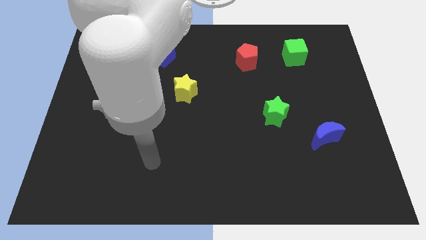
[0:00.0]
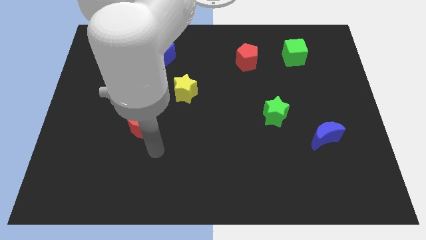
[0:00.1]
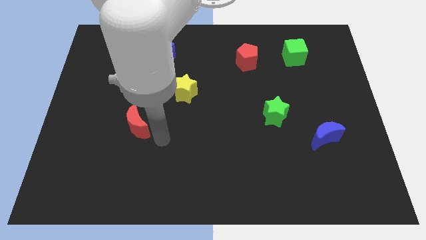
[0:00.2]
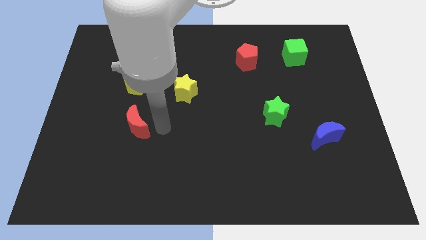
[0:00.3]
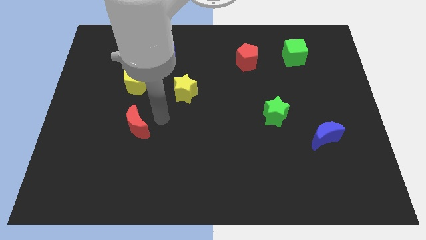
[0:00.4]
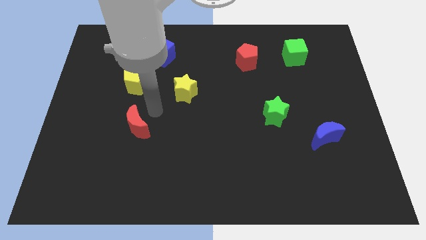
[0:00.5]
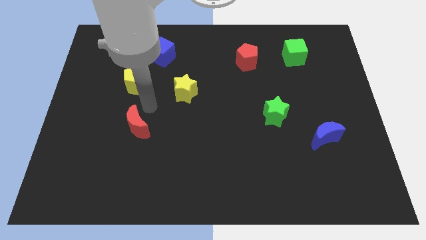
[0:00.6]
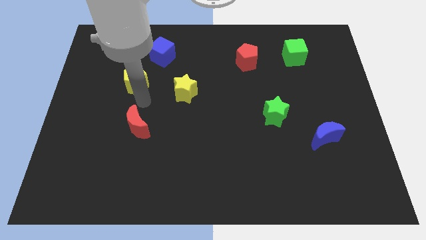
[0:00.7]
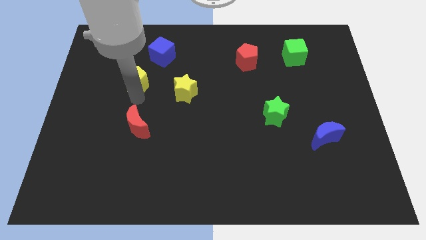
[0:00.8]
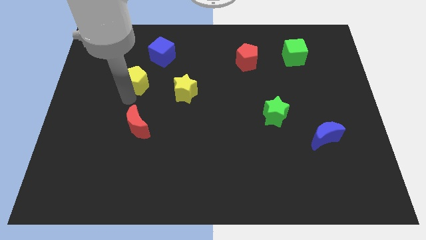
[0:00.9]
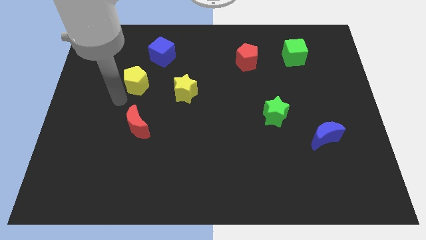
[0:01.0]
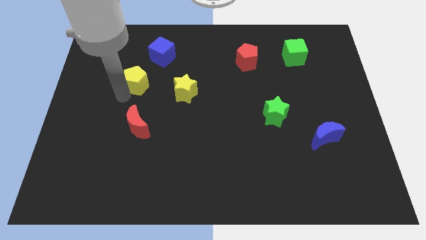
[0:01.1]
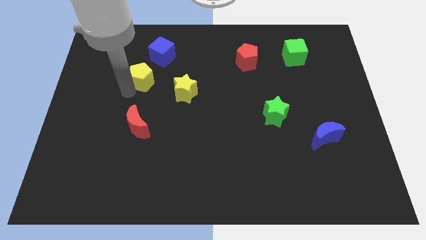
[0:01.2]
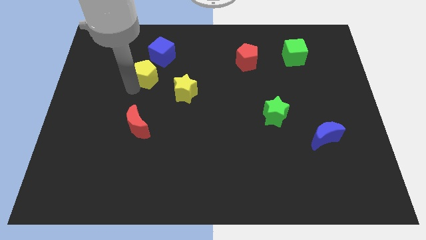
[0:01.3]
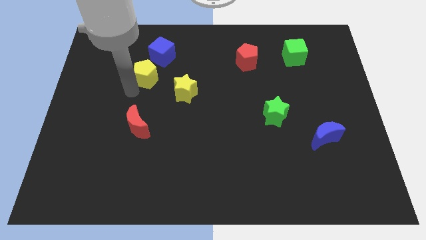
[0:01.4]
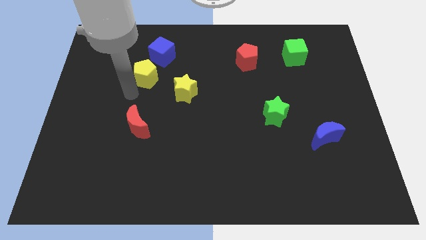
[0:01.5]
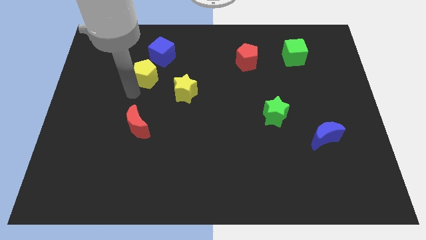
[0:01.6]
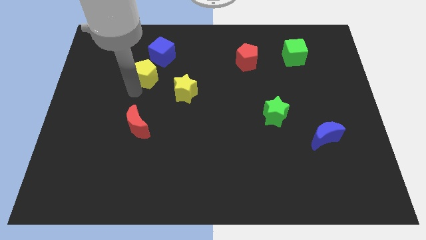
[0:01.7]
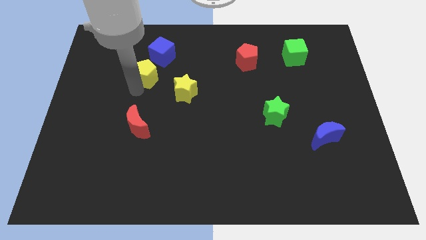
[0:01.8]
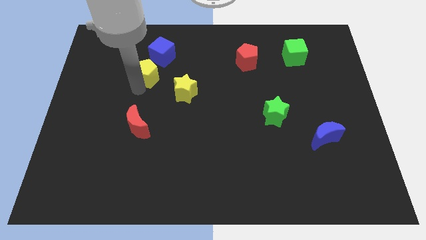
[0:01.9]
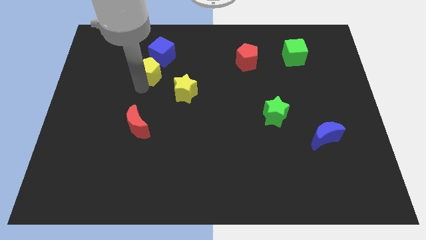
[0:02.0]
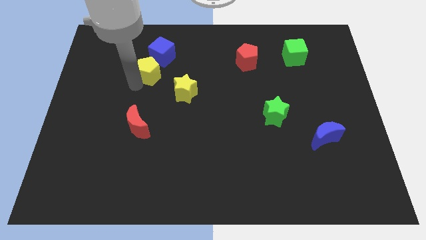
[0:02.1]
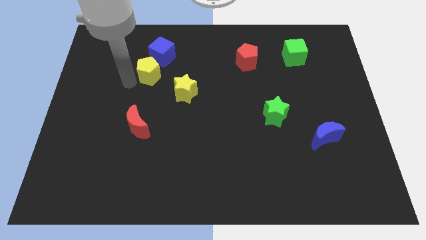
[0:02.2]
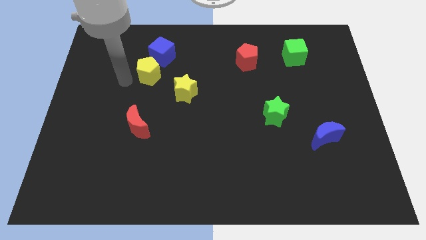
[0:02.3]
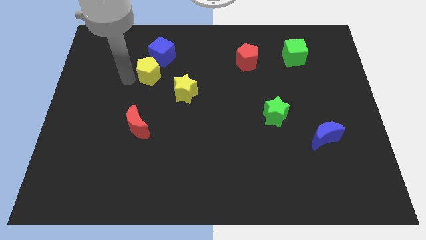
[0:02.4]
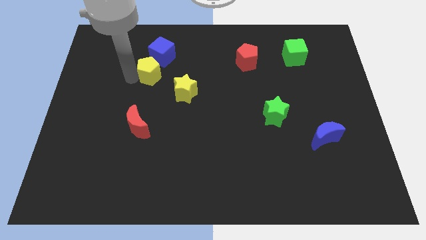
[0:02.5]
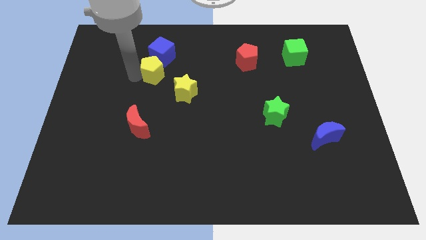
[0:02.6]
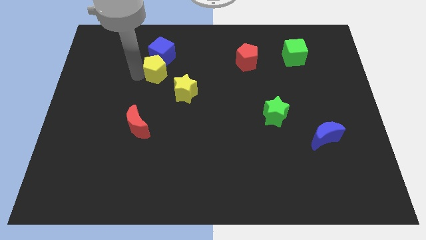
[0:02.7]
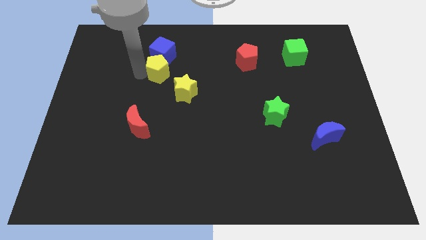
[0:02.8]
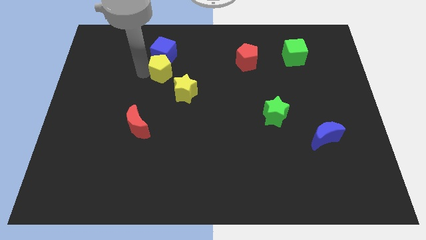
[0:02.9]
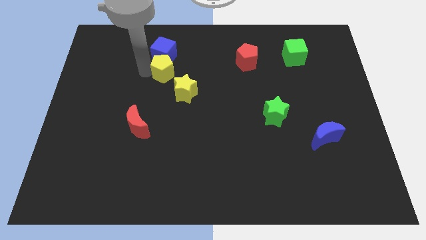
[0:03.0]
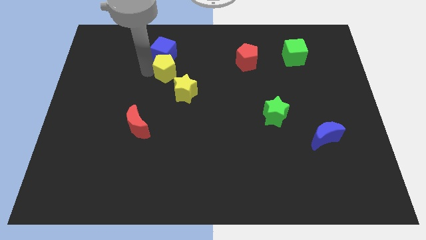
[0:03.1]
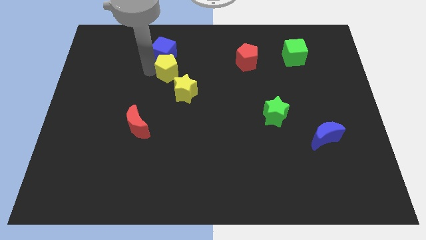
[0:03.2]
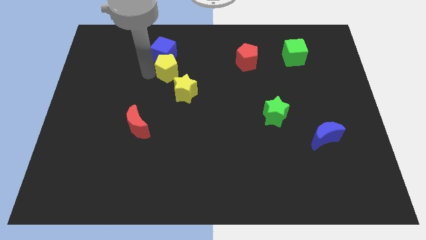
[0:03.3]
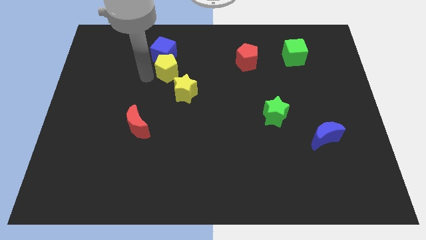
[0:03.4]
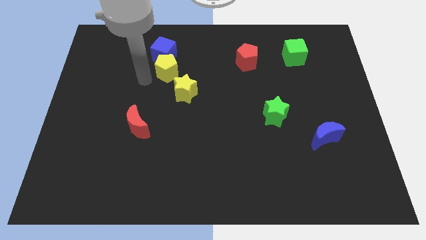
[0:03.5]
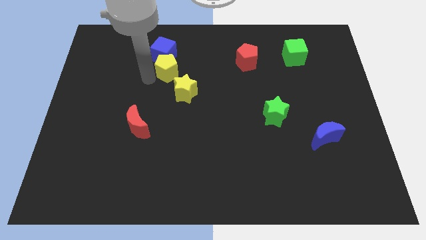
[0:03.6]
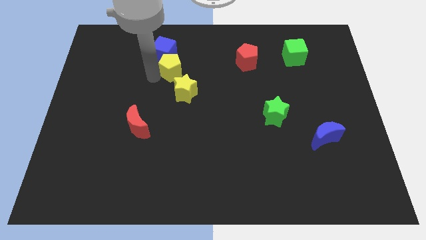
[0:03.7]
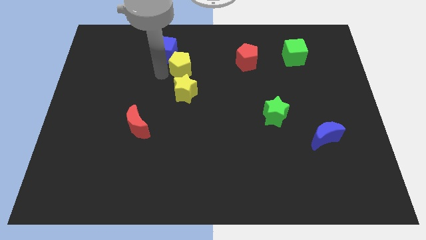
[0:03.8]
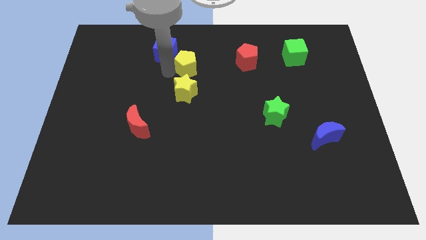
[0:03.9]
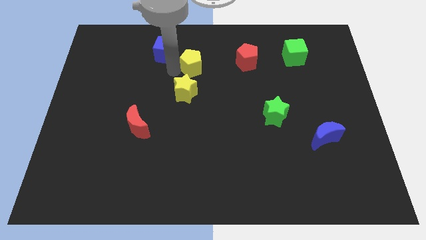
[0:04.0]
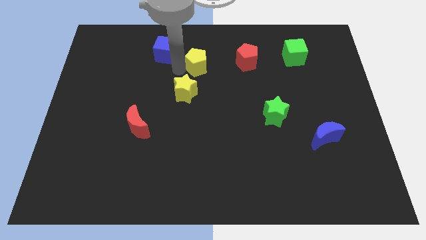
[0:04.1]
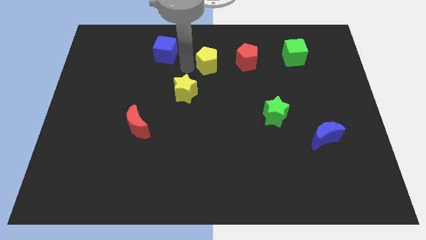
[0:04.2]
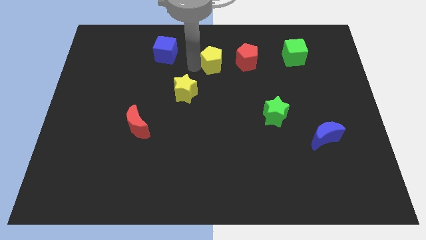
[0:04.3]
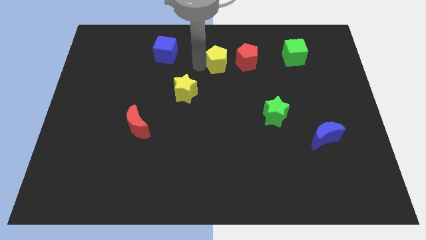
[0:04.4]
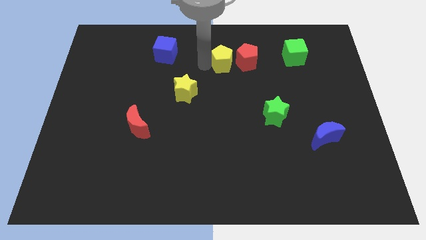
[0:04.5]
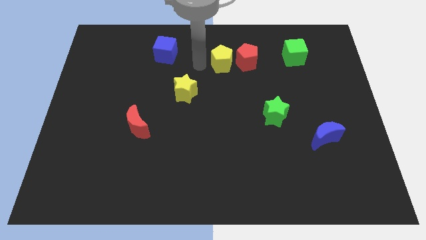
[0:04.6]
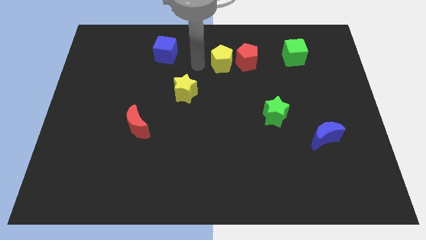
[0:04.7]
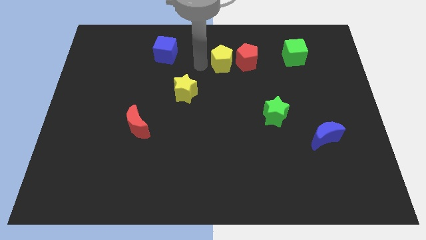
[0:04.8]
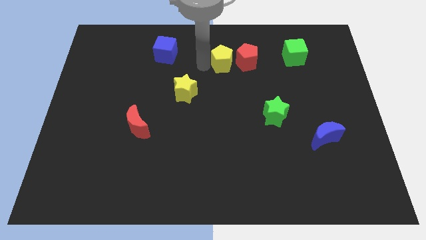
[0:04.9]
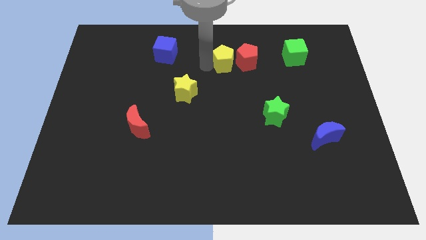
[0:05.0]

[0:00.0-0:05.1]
slide the yellow pentagon next to the red pentagon

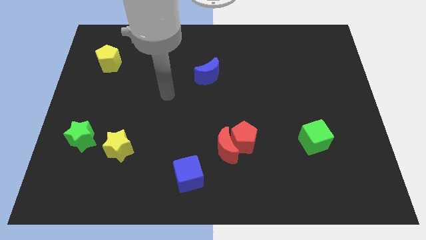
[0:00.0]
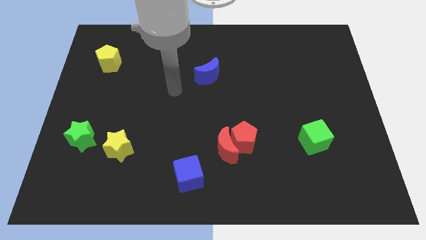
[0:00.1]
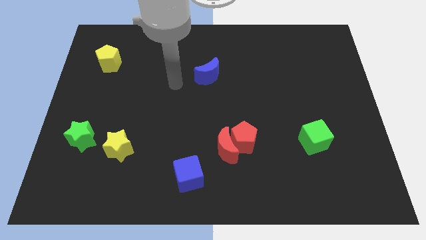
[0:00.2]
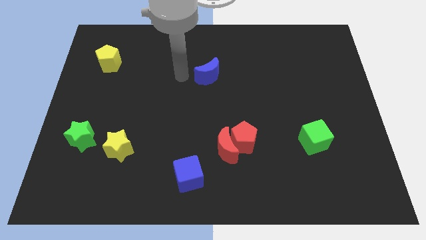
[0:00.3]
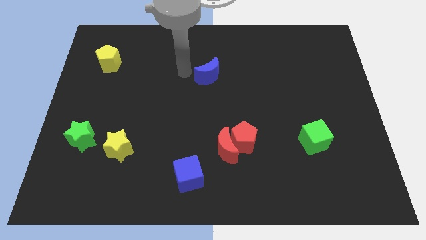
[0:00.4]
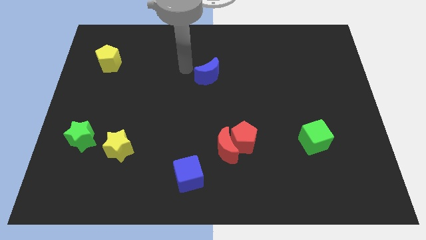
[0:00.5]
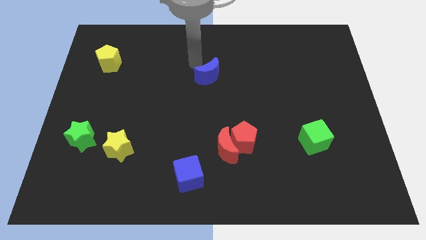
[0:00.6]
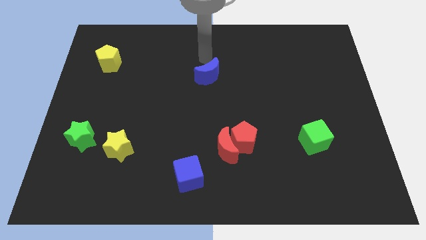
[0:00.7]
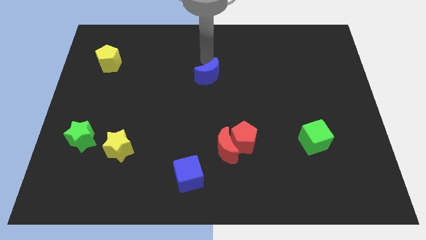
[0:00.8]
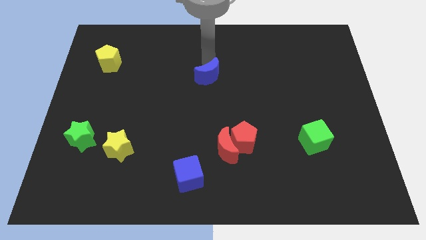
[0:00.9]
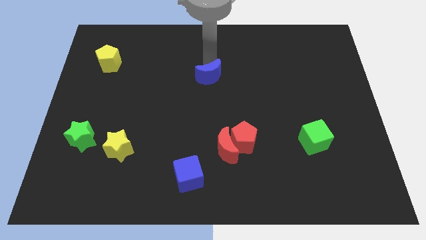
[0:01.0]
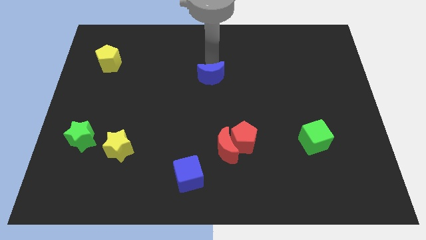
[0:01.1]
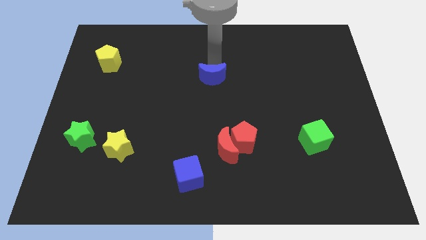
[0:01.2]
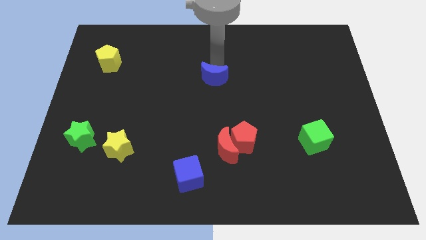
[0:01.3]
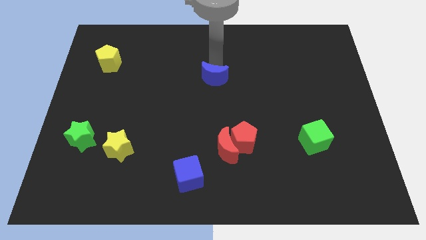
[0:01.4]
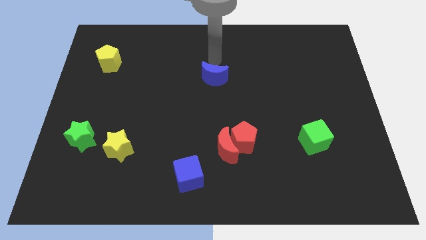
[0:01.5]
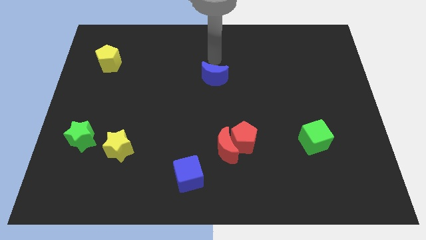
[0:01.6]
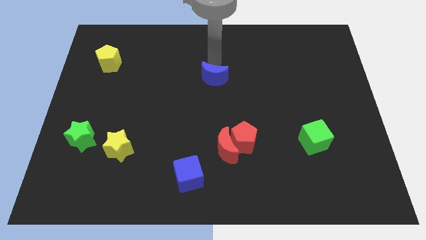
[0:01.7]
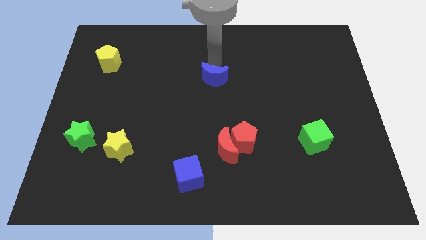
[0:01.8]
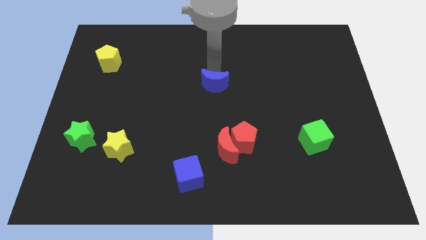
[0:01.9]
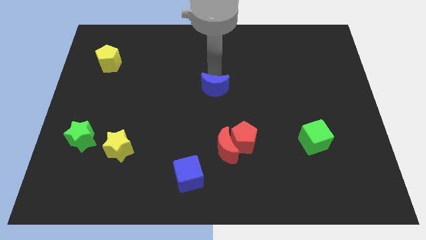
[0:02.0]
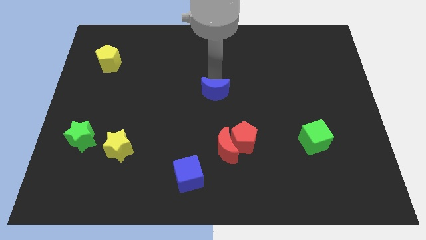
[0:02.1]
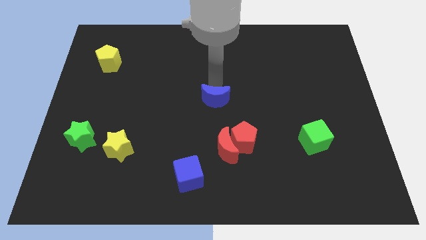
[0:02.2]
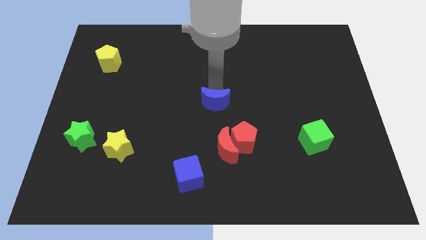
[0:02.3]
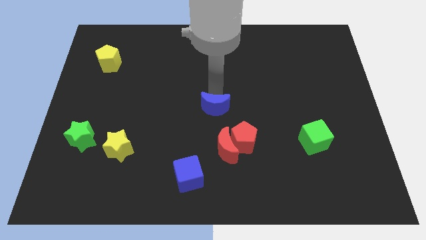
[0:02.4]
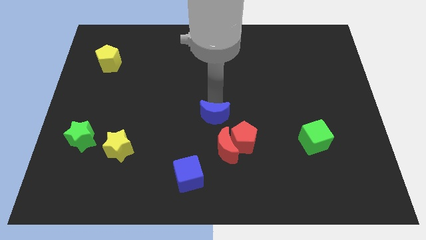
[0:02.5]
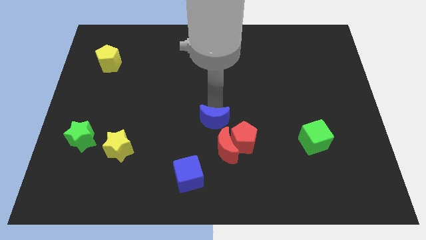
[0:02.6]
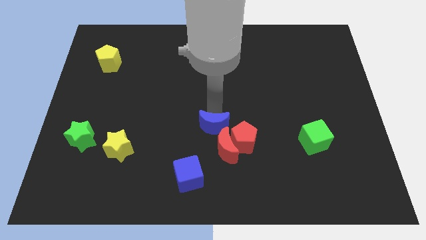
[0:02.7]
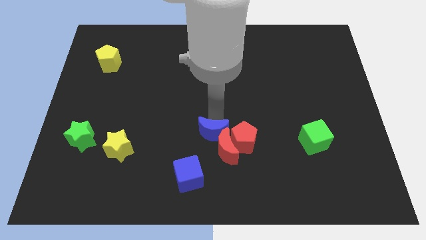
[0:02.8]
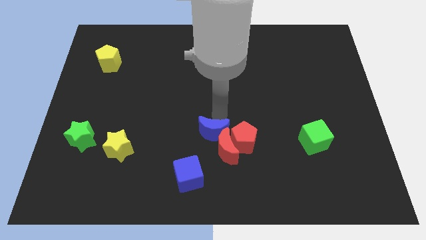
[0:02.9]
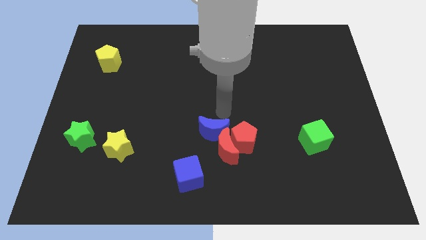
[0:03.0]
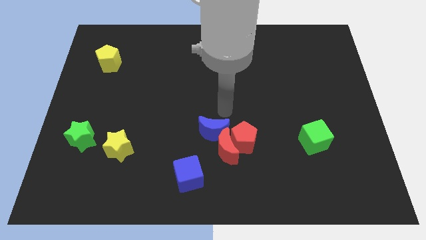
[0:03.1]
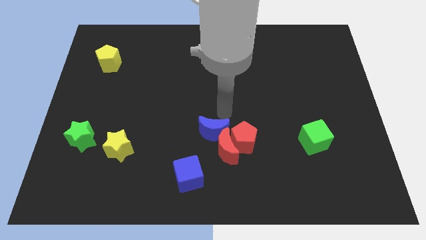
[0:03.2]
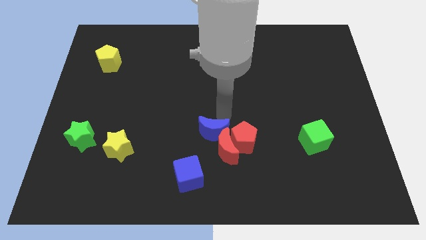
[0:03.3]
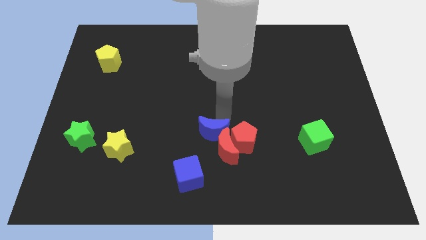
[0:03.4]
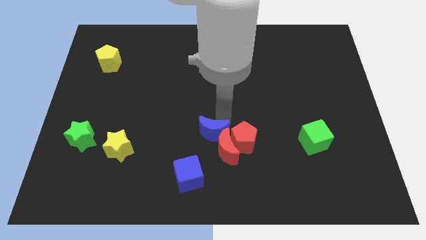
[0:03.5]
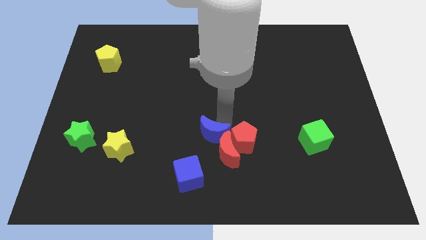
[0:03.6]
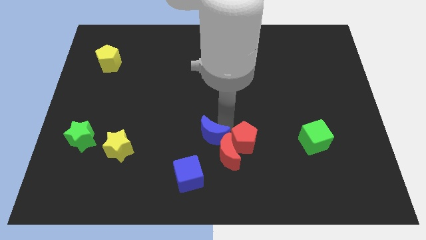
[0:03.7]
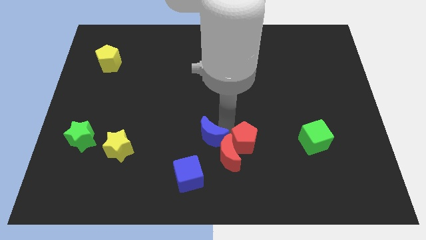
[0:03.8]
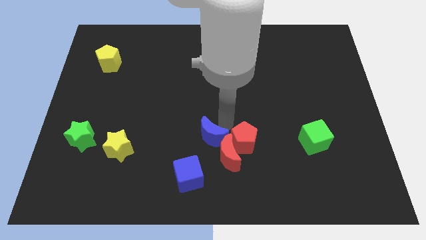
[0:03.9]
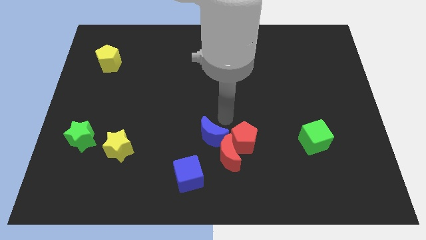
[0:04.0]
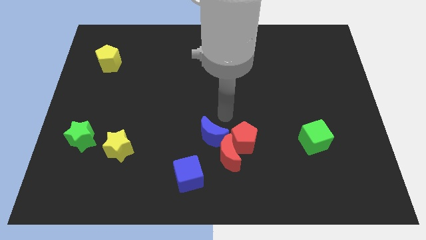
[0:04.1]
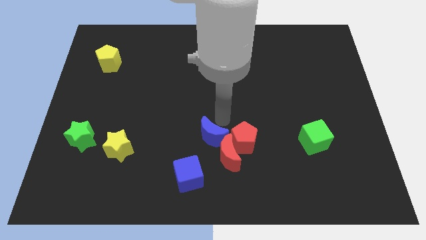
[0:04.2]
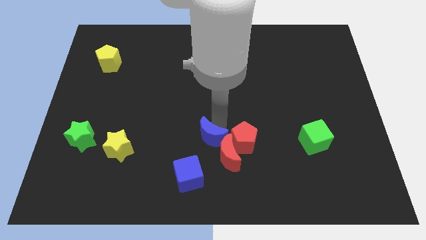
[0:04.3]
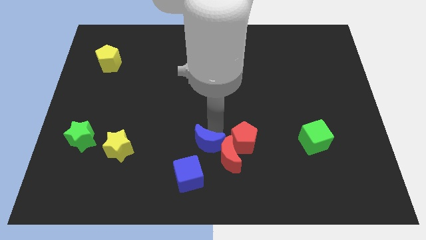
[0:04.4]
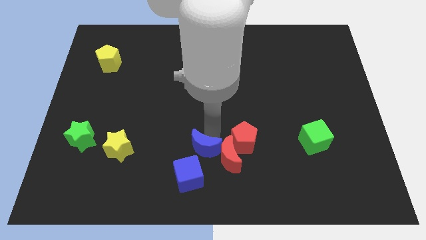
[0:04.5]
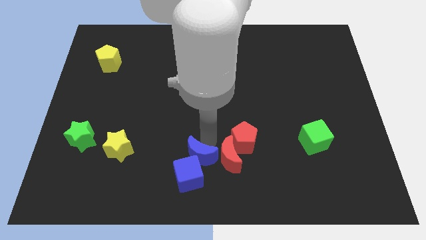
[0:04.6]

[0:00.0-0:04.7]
slide the blue moon close to the blue cube
